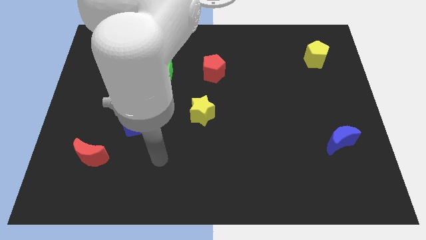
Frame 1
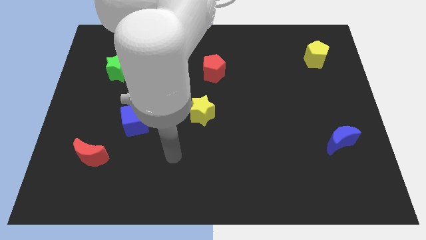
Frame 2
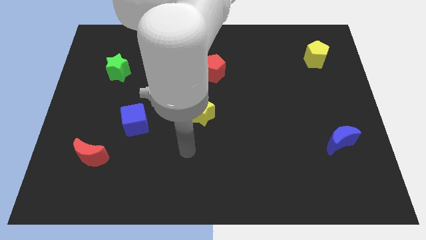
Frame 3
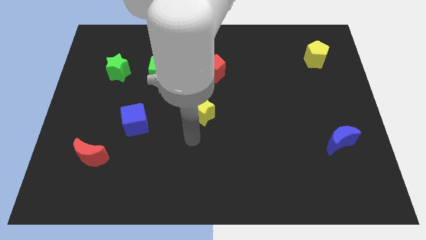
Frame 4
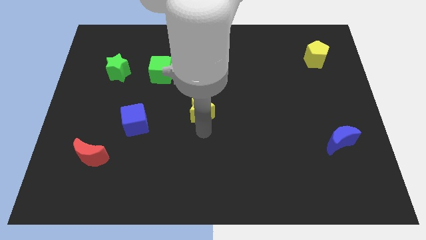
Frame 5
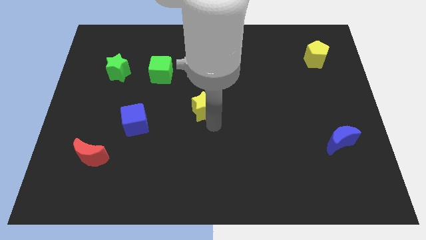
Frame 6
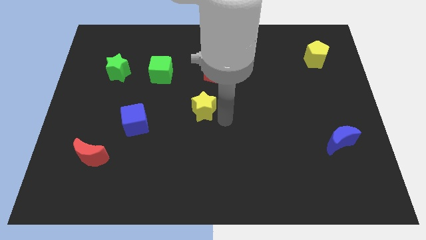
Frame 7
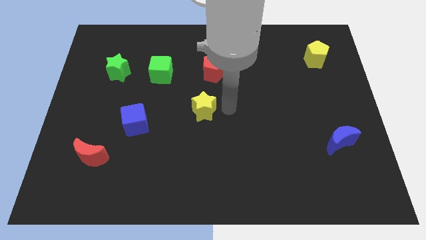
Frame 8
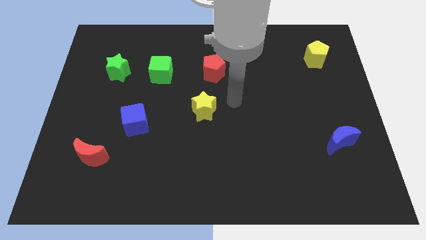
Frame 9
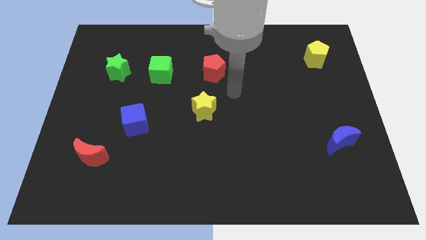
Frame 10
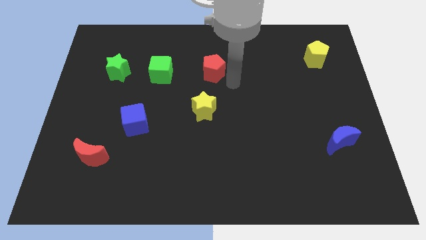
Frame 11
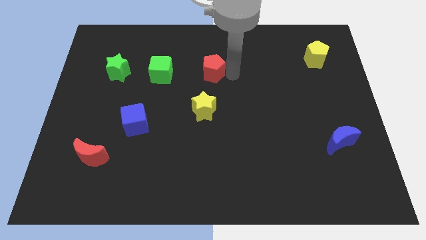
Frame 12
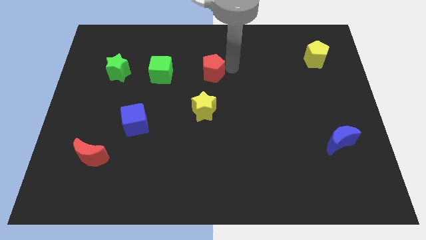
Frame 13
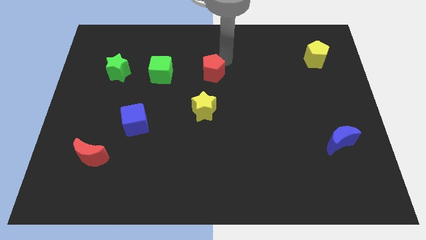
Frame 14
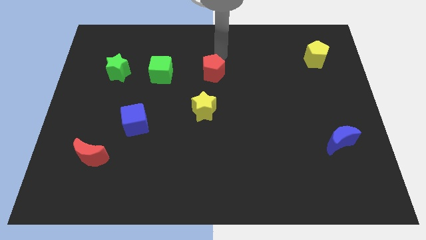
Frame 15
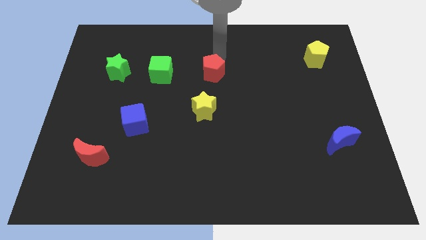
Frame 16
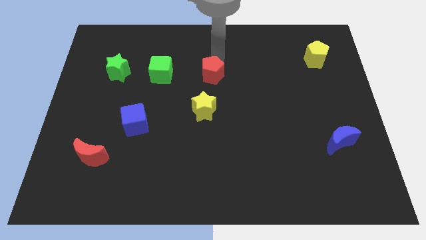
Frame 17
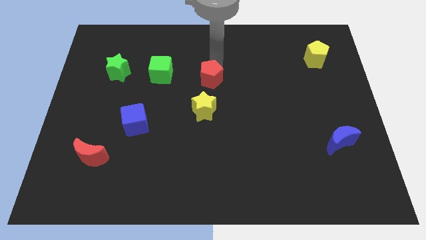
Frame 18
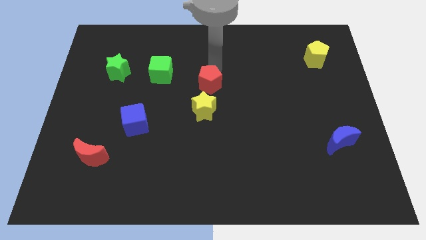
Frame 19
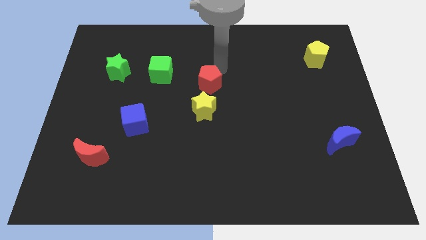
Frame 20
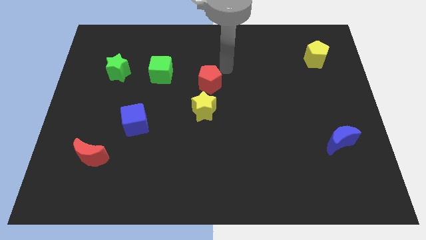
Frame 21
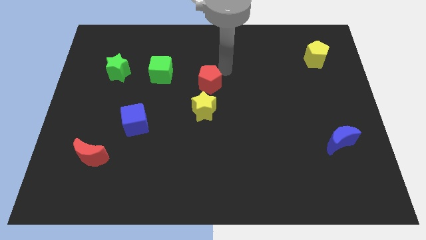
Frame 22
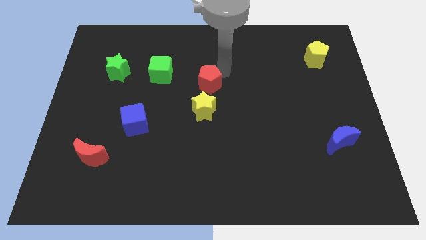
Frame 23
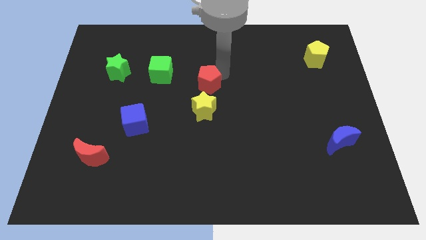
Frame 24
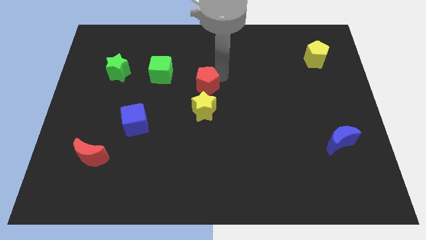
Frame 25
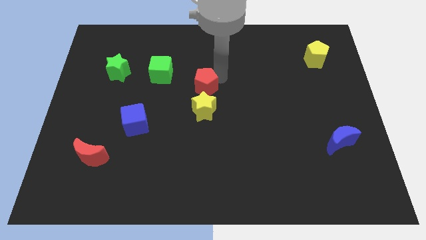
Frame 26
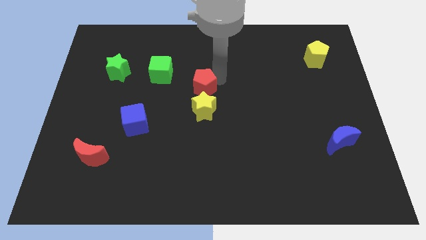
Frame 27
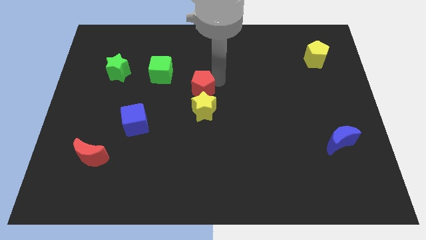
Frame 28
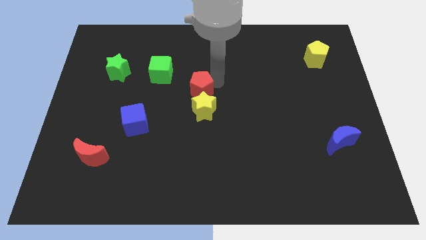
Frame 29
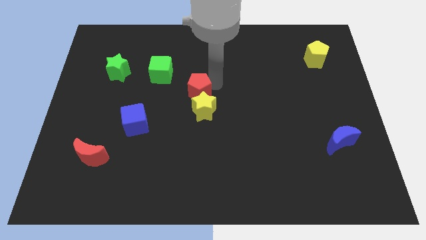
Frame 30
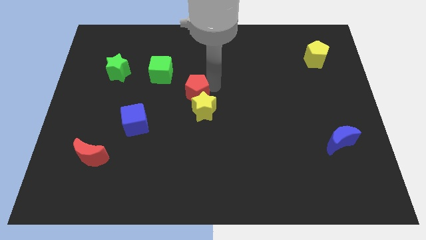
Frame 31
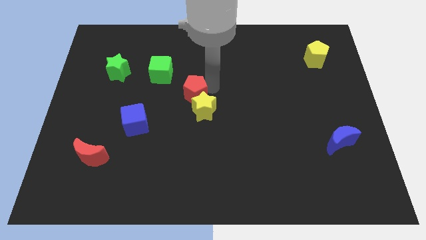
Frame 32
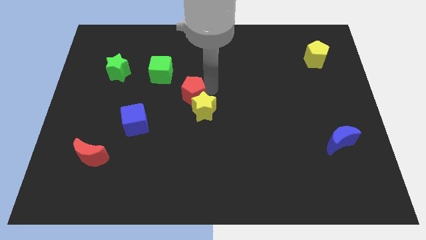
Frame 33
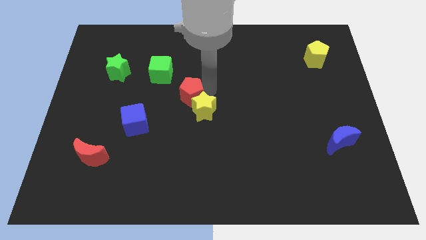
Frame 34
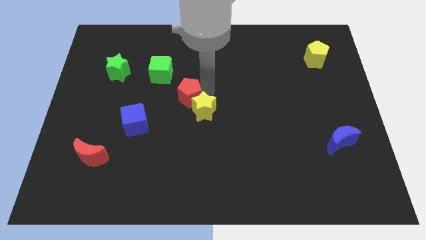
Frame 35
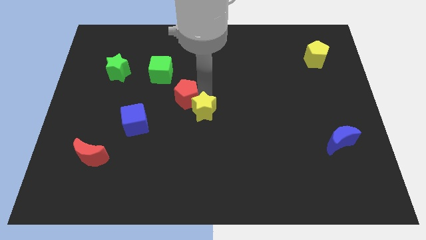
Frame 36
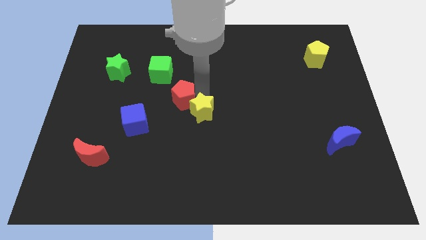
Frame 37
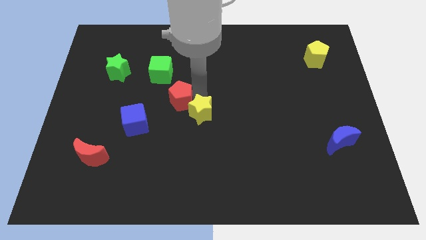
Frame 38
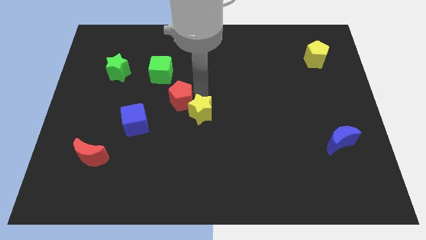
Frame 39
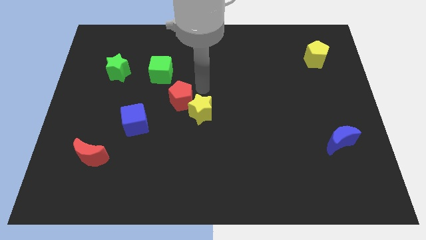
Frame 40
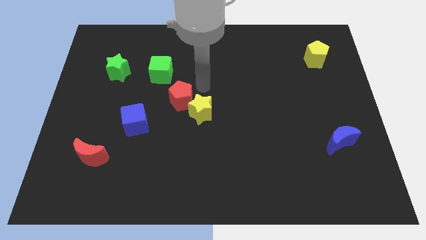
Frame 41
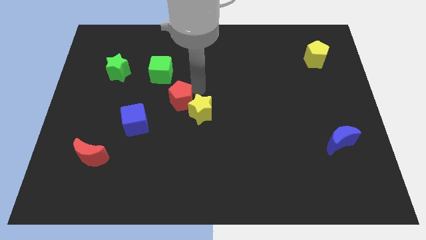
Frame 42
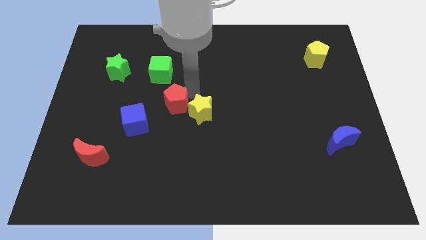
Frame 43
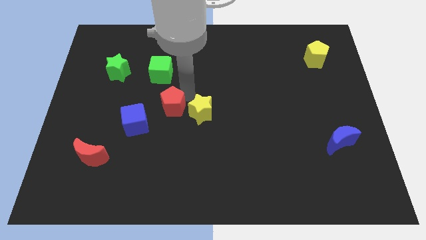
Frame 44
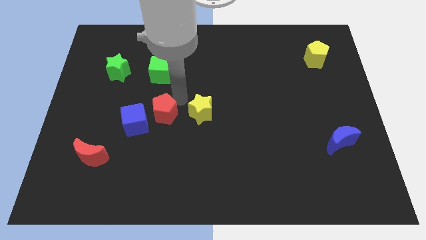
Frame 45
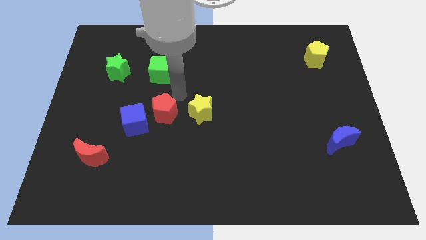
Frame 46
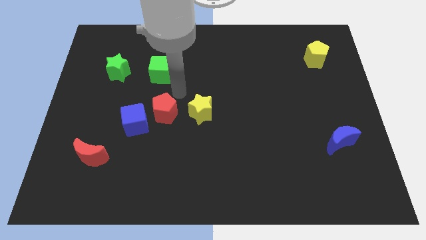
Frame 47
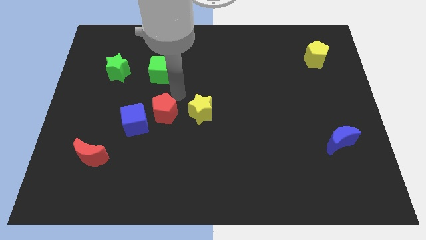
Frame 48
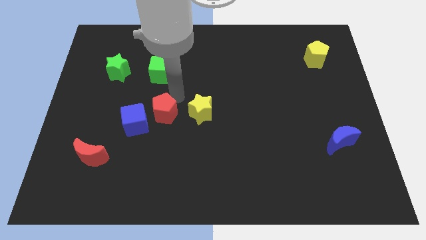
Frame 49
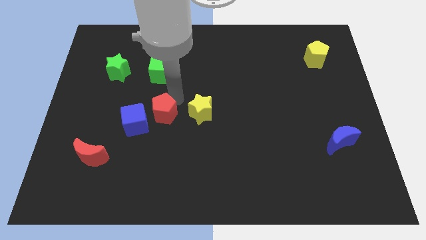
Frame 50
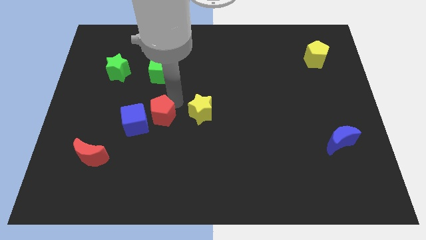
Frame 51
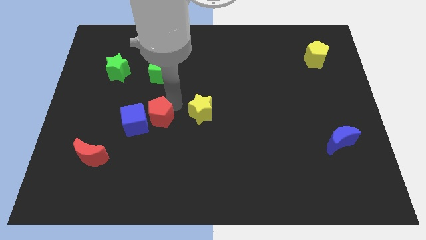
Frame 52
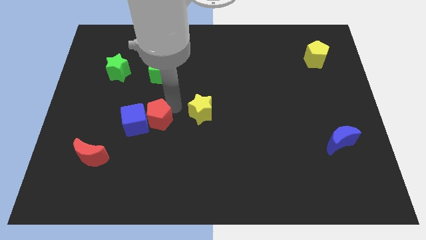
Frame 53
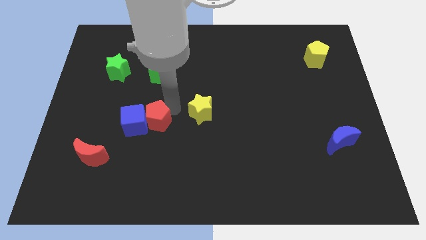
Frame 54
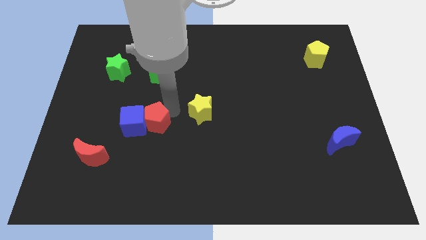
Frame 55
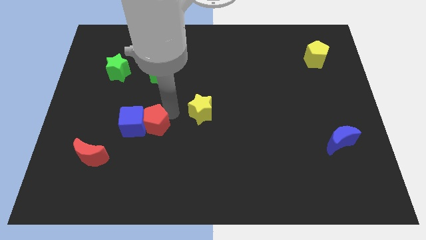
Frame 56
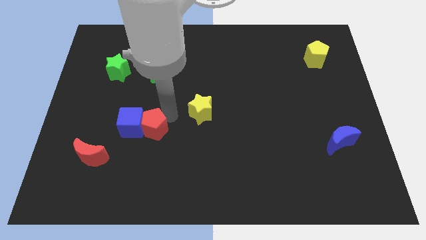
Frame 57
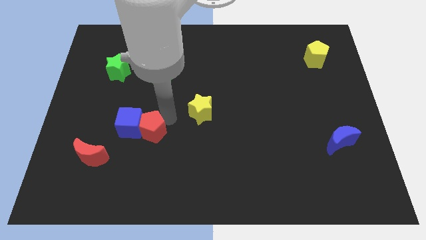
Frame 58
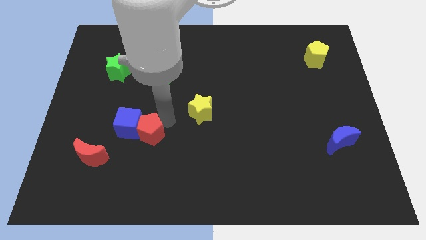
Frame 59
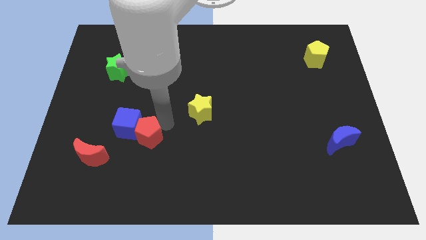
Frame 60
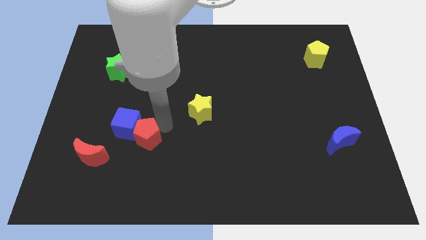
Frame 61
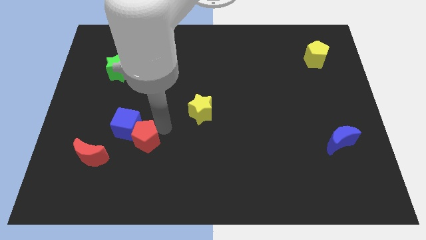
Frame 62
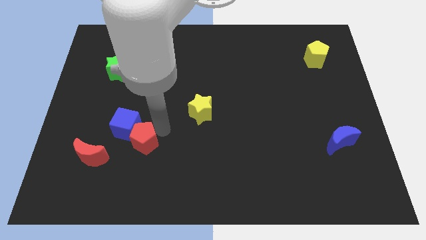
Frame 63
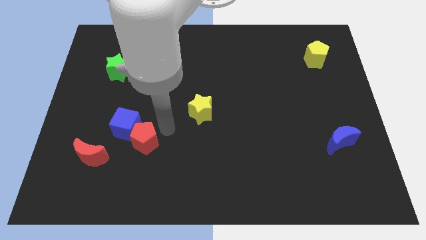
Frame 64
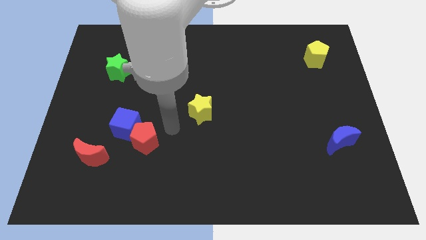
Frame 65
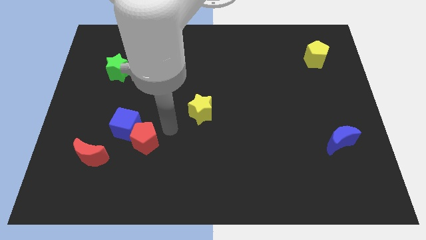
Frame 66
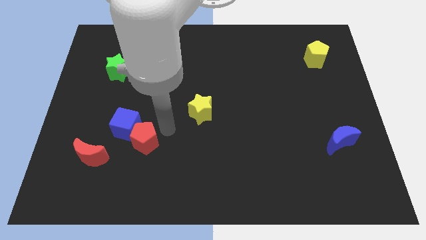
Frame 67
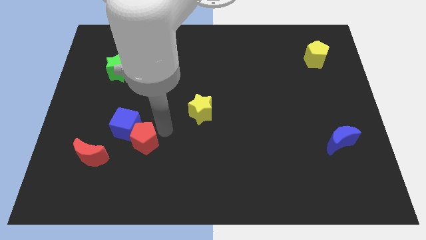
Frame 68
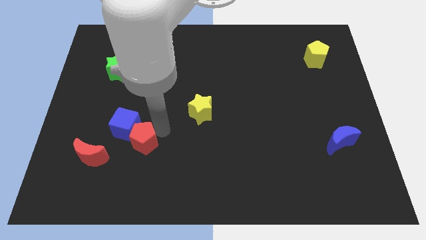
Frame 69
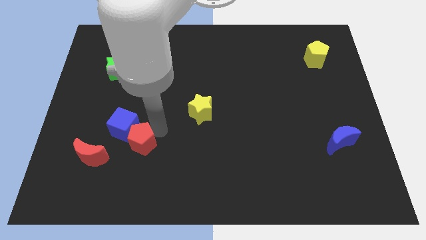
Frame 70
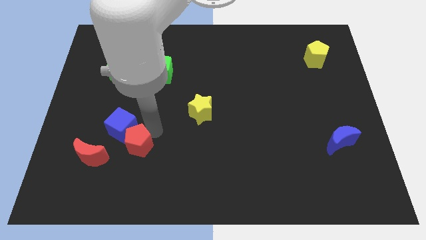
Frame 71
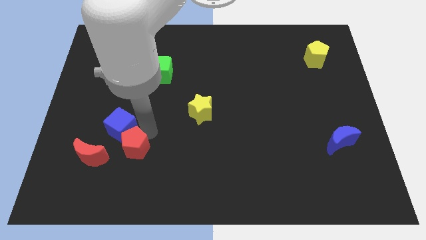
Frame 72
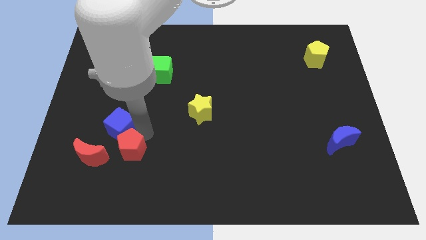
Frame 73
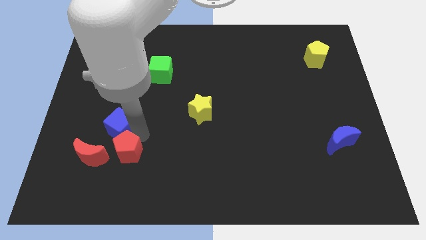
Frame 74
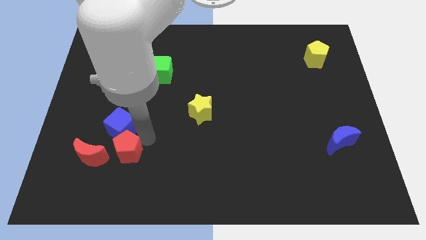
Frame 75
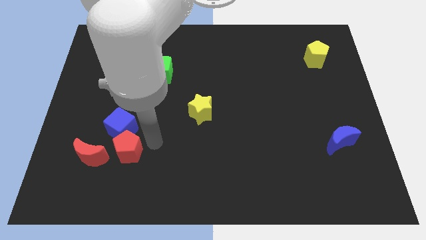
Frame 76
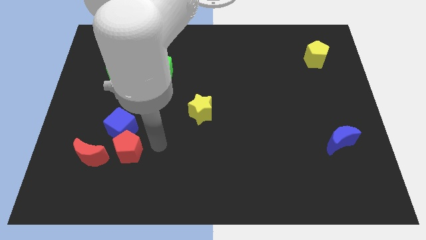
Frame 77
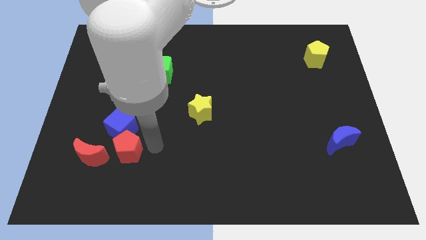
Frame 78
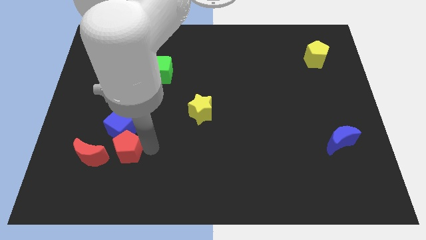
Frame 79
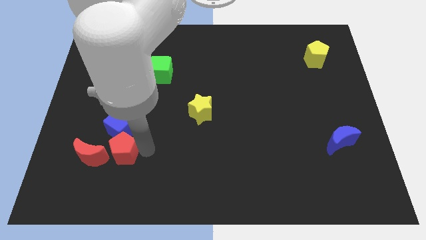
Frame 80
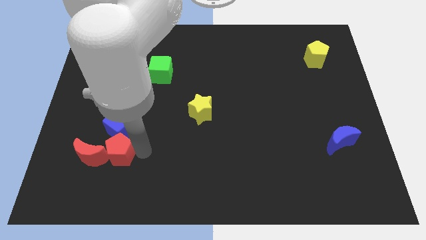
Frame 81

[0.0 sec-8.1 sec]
move the red pentagon to the red moon
